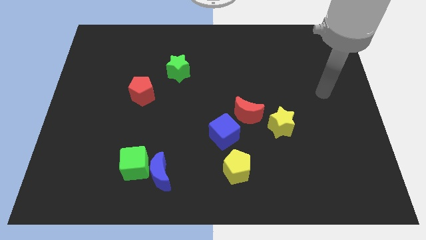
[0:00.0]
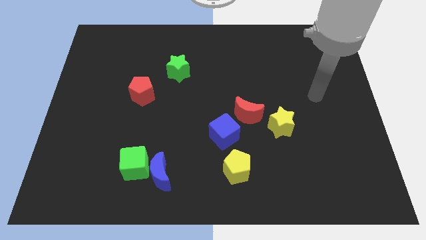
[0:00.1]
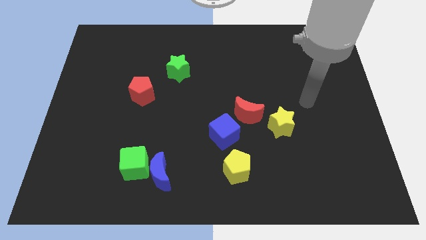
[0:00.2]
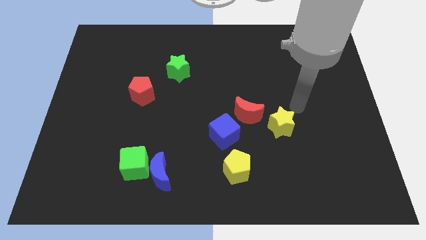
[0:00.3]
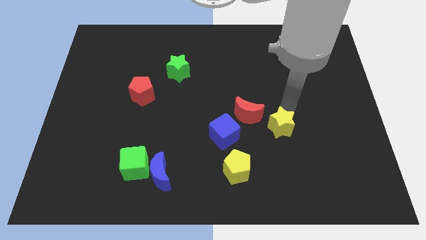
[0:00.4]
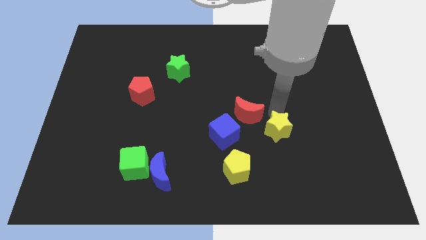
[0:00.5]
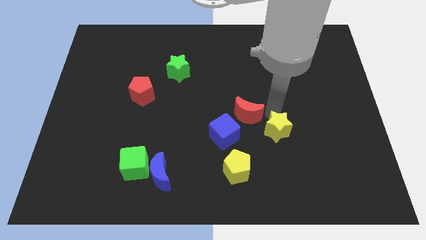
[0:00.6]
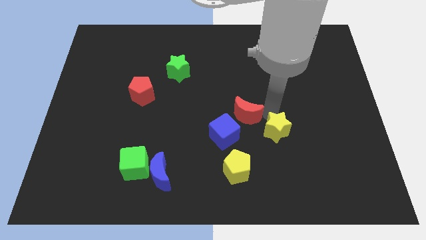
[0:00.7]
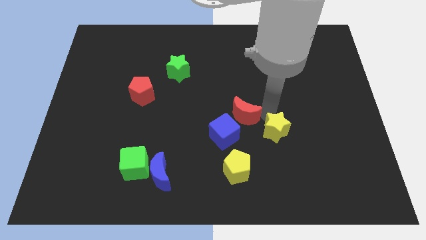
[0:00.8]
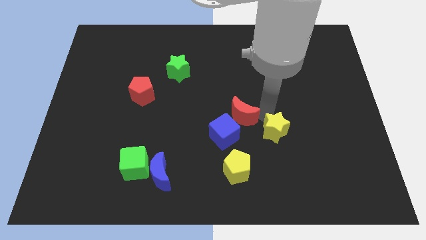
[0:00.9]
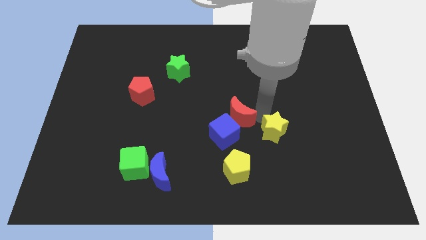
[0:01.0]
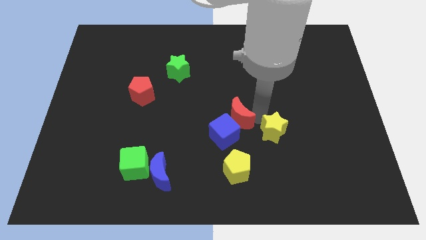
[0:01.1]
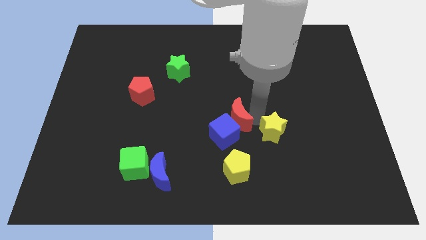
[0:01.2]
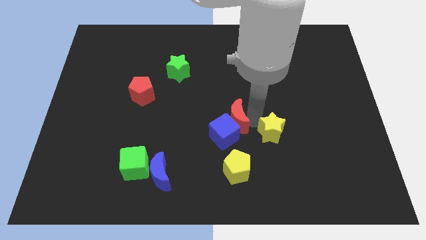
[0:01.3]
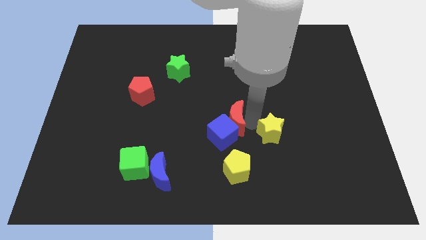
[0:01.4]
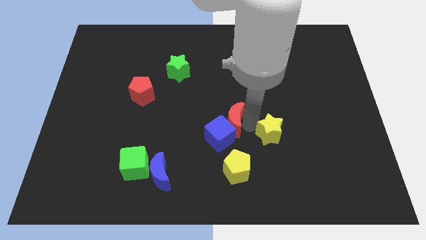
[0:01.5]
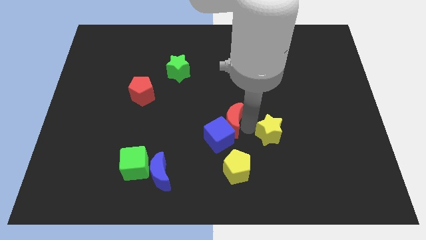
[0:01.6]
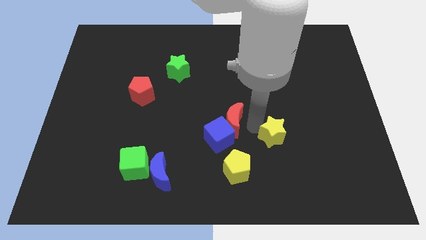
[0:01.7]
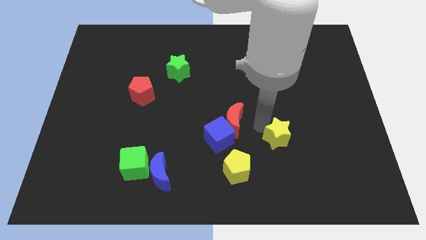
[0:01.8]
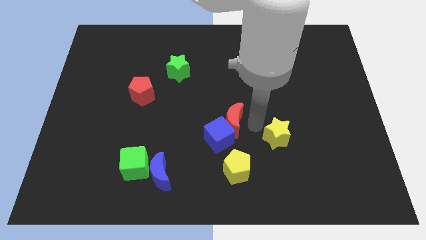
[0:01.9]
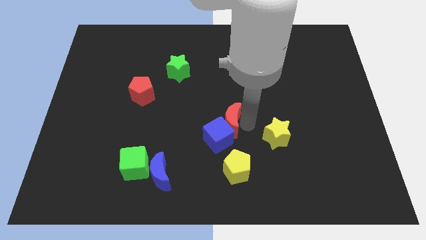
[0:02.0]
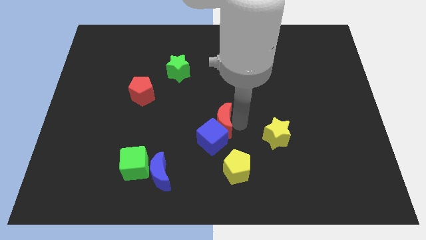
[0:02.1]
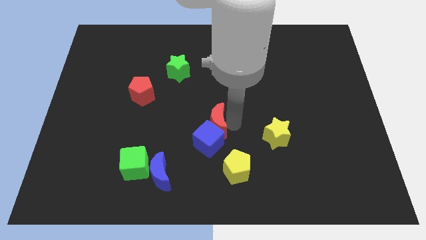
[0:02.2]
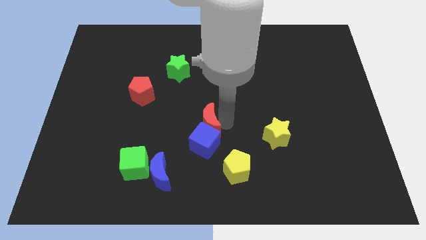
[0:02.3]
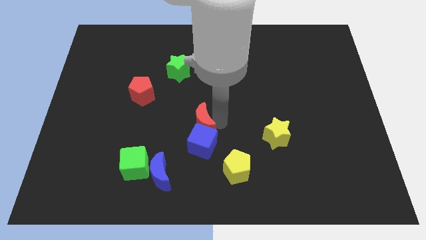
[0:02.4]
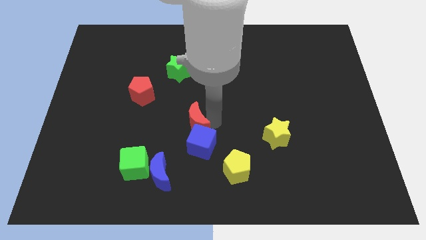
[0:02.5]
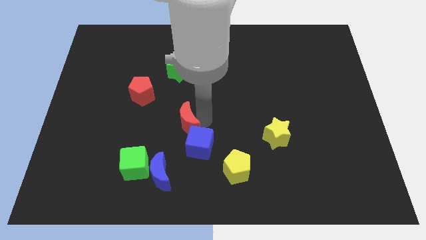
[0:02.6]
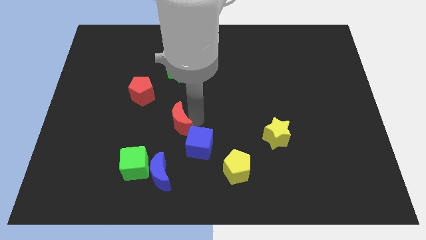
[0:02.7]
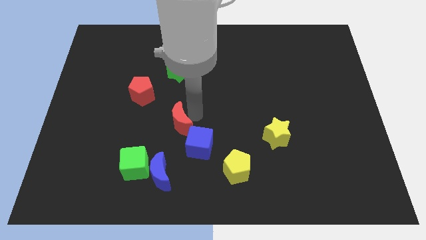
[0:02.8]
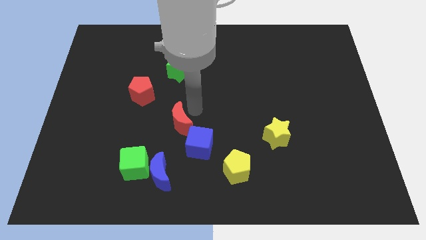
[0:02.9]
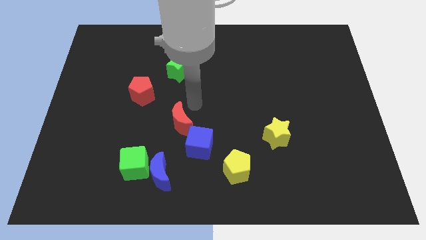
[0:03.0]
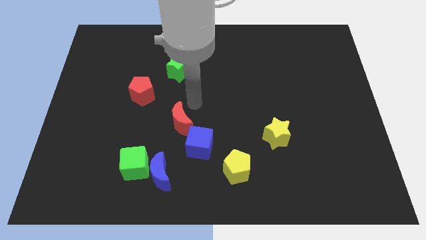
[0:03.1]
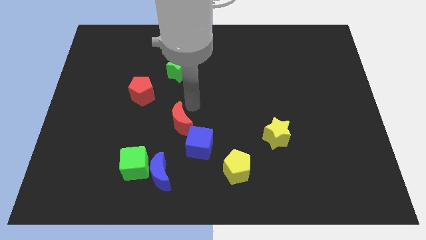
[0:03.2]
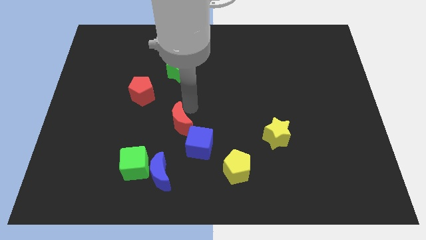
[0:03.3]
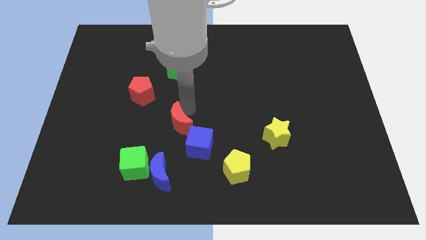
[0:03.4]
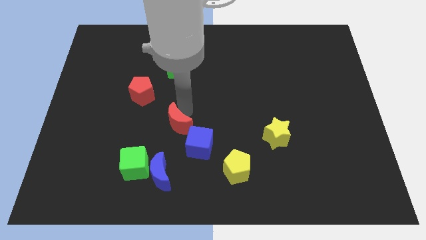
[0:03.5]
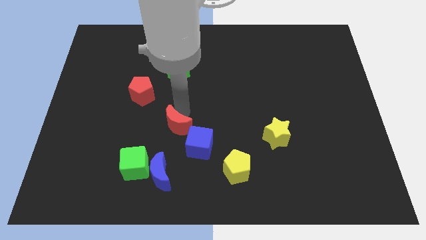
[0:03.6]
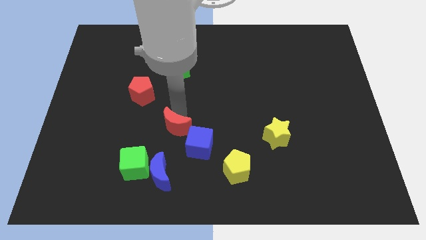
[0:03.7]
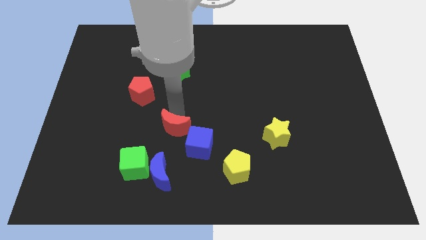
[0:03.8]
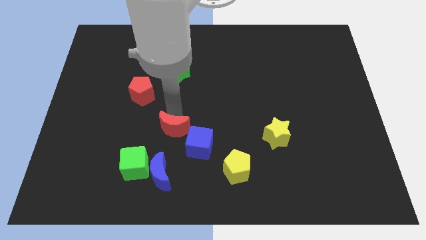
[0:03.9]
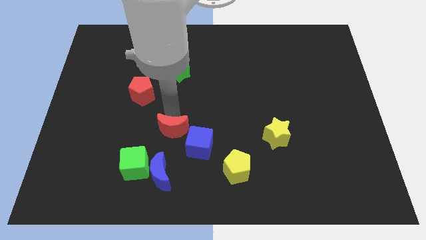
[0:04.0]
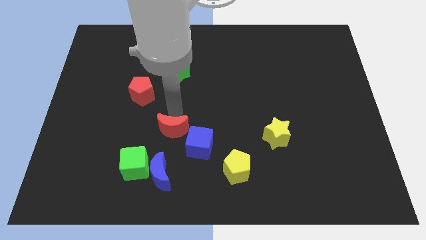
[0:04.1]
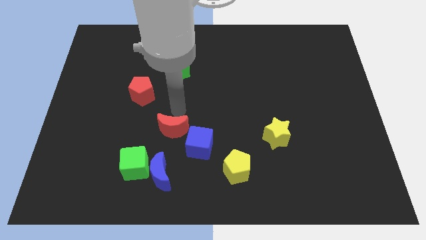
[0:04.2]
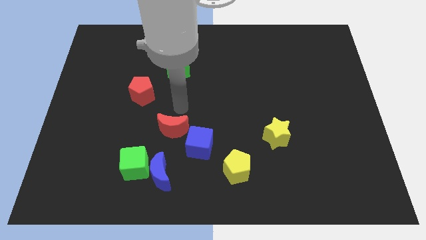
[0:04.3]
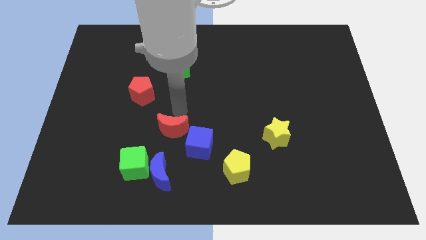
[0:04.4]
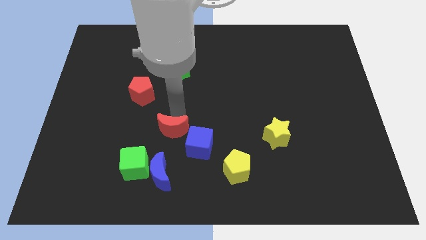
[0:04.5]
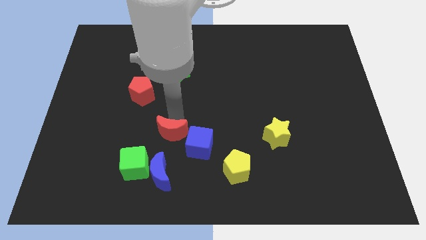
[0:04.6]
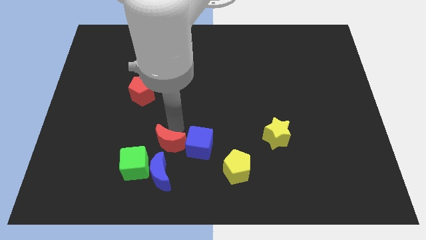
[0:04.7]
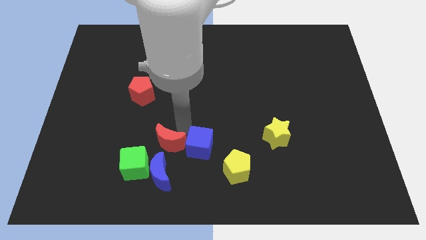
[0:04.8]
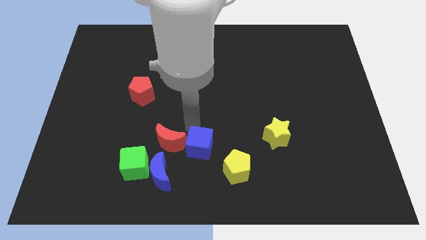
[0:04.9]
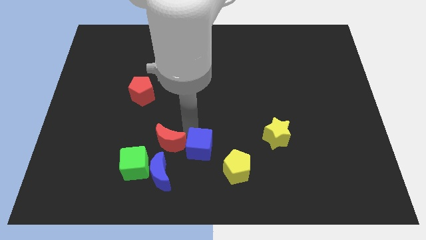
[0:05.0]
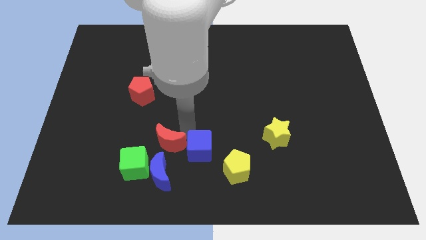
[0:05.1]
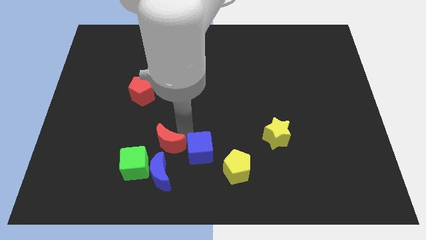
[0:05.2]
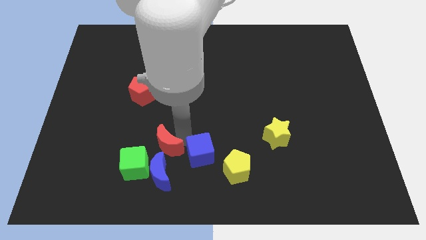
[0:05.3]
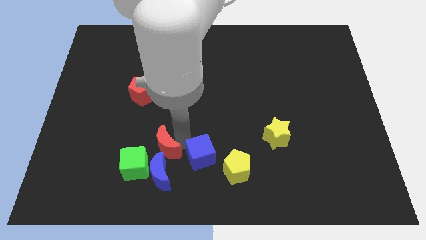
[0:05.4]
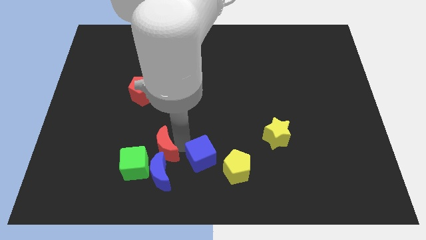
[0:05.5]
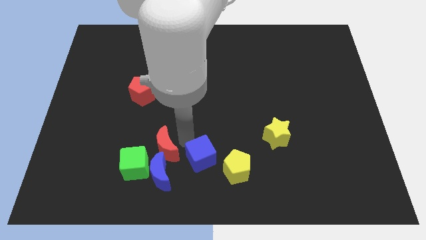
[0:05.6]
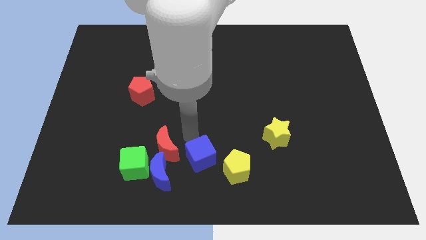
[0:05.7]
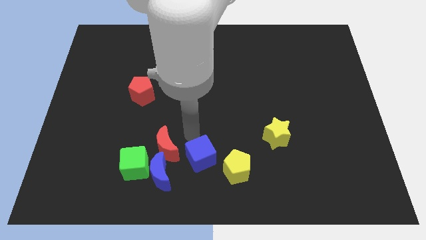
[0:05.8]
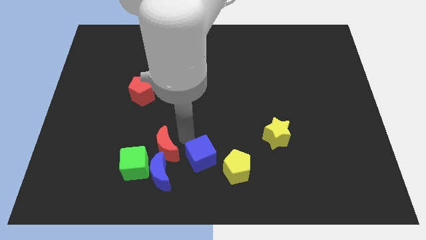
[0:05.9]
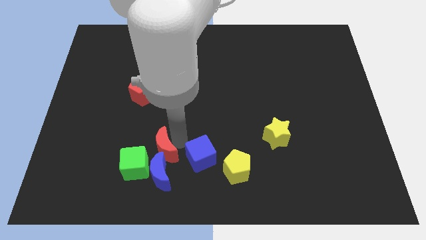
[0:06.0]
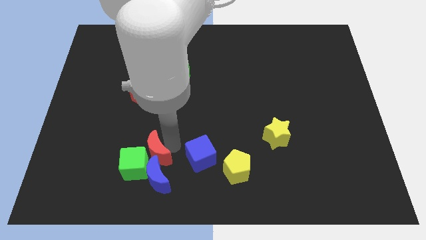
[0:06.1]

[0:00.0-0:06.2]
slide the red moon next to the green cube

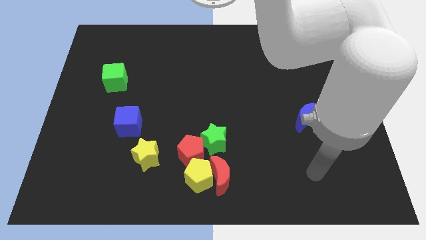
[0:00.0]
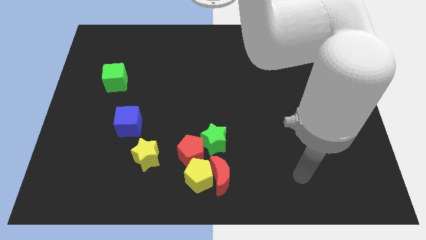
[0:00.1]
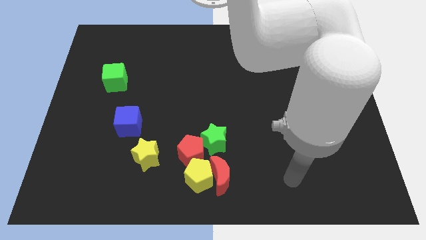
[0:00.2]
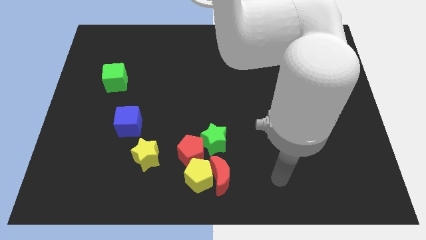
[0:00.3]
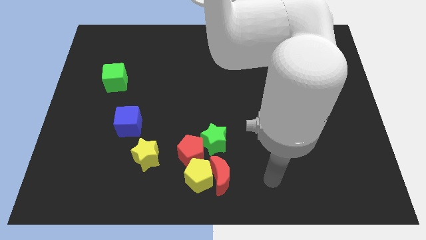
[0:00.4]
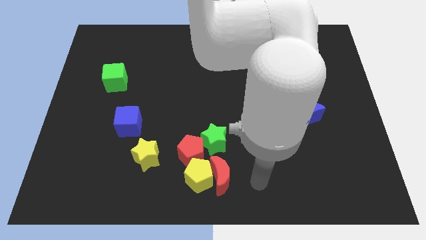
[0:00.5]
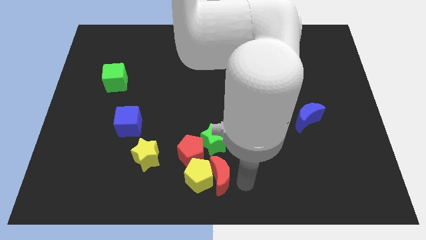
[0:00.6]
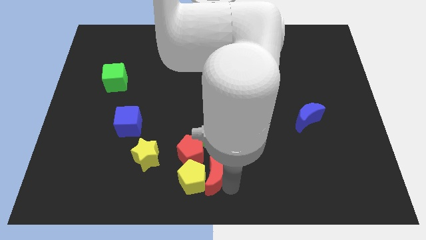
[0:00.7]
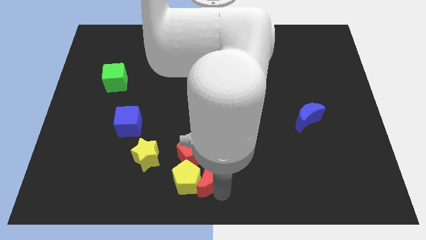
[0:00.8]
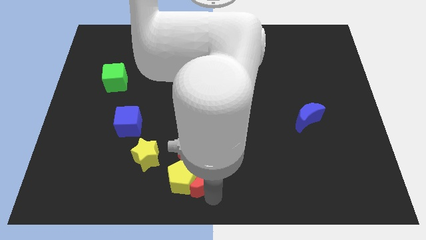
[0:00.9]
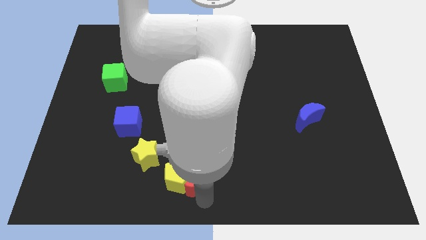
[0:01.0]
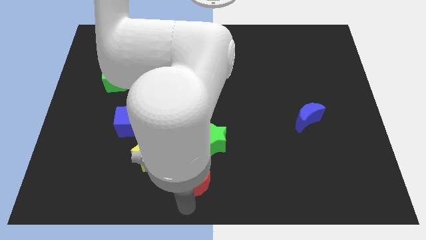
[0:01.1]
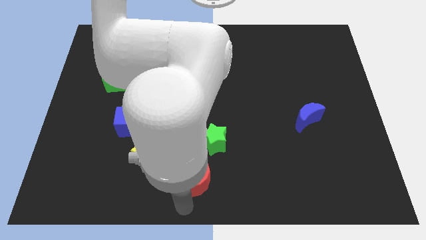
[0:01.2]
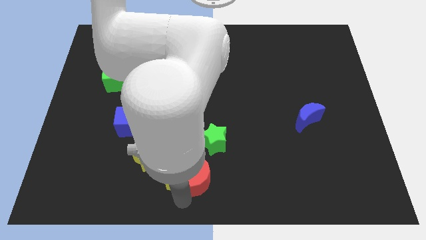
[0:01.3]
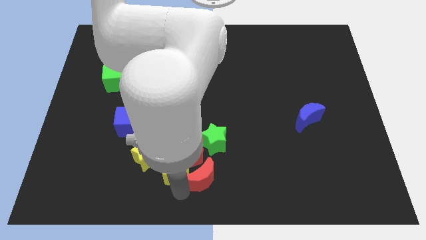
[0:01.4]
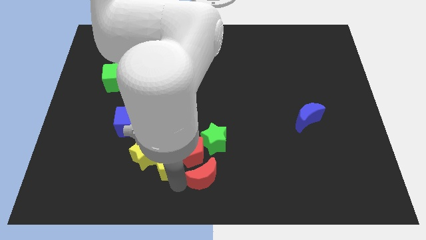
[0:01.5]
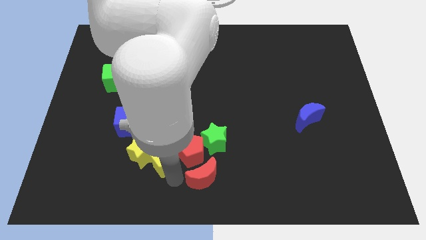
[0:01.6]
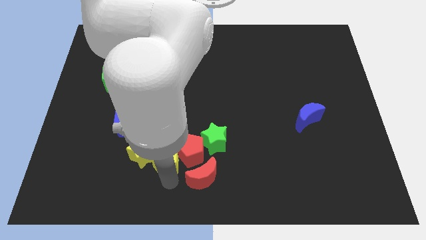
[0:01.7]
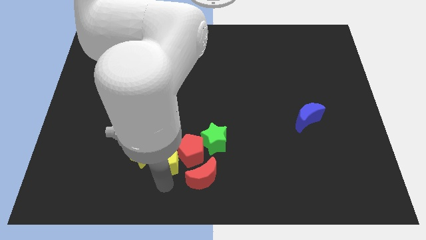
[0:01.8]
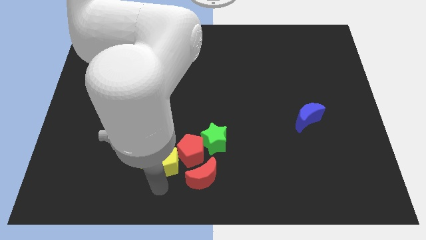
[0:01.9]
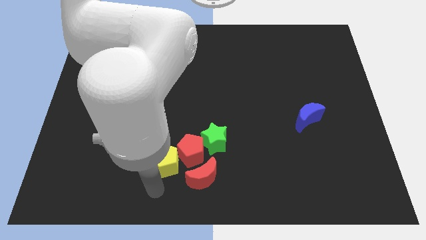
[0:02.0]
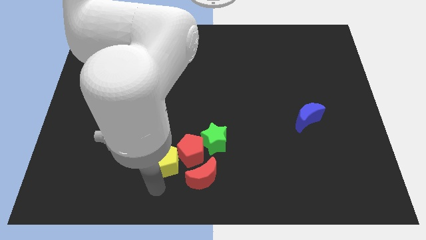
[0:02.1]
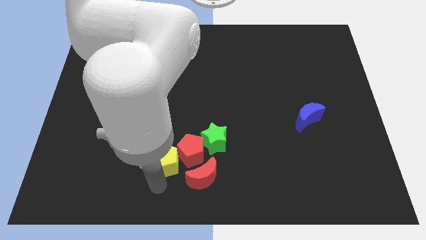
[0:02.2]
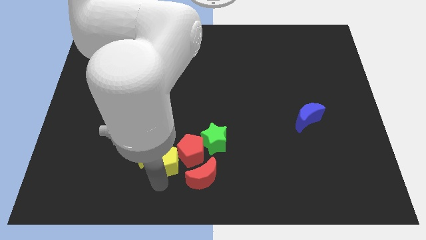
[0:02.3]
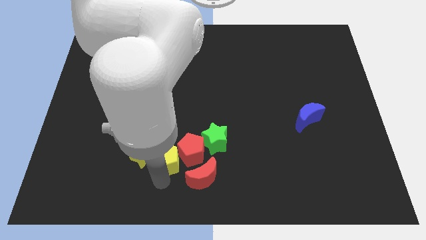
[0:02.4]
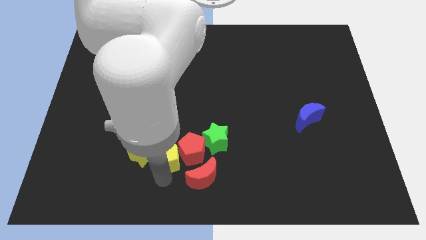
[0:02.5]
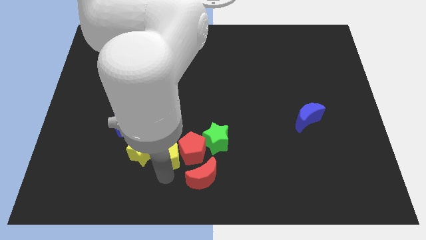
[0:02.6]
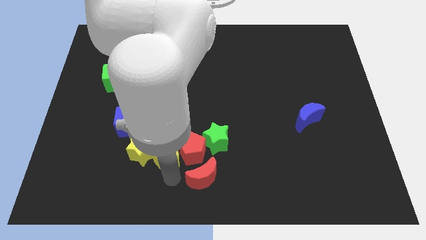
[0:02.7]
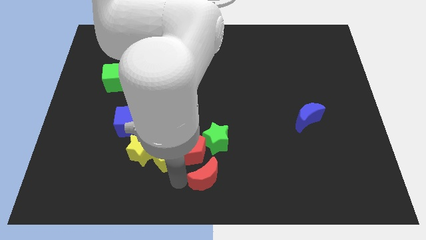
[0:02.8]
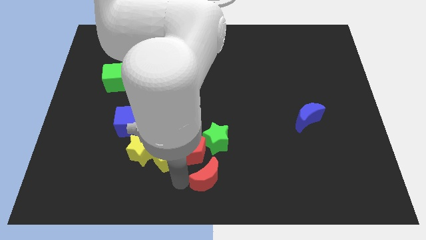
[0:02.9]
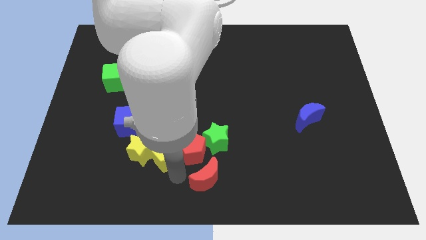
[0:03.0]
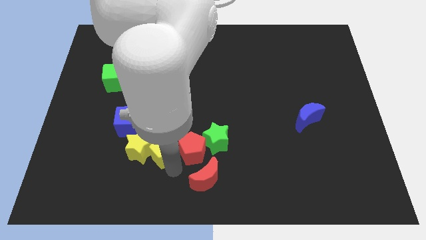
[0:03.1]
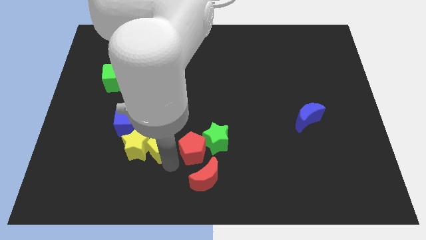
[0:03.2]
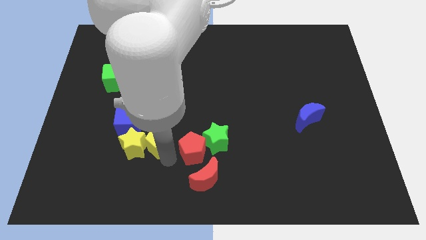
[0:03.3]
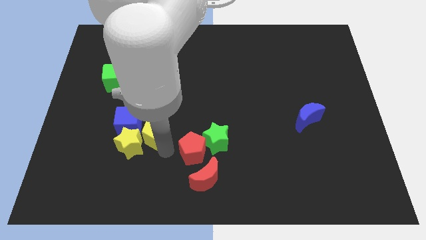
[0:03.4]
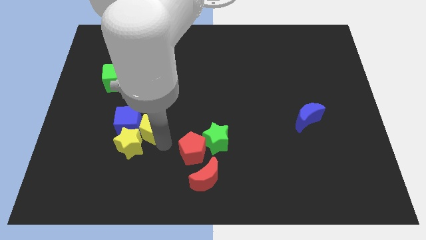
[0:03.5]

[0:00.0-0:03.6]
move the yellow pentagon next to the blue cube
